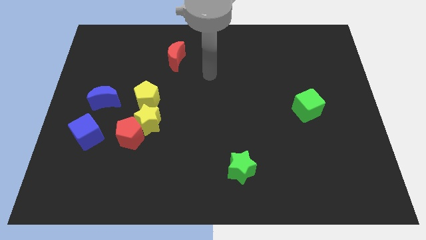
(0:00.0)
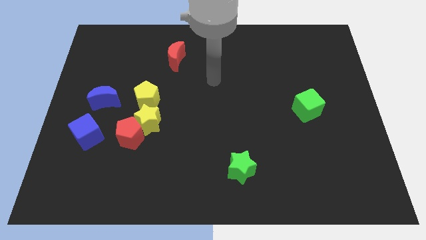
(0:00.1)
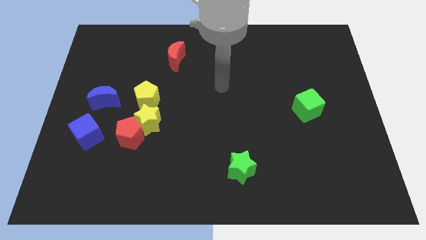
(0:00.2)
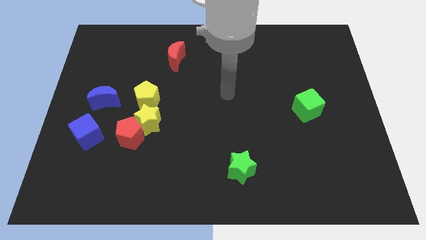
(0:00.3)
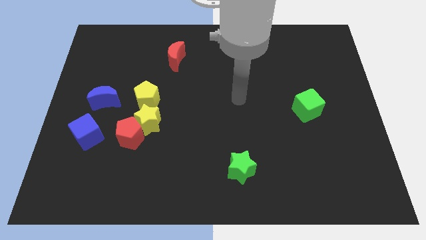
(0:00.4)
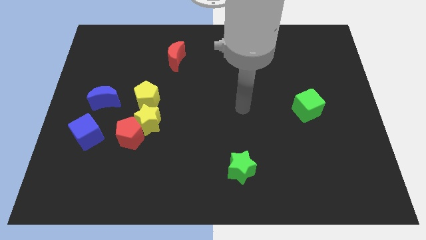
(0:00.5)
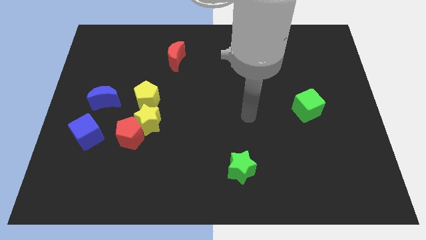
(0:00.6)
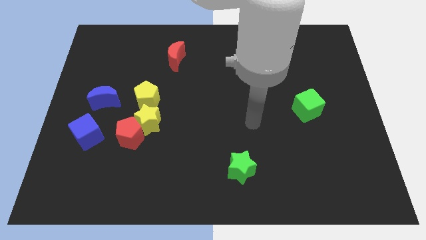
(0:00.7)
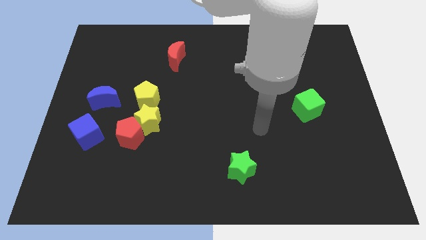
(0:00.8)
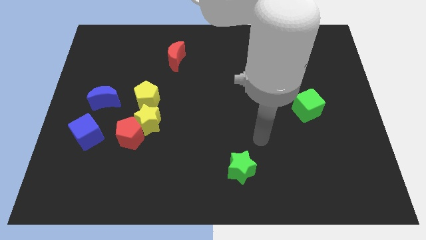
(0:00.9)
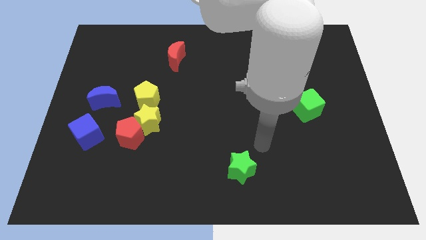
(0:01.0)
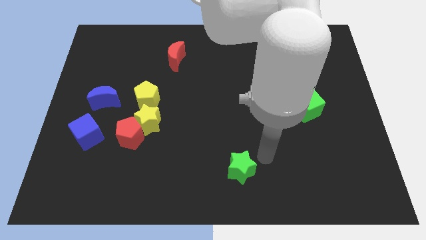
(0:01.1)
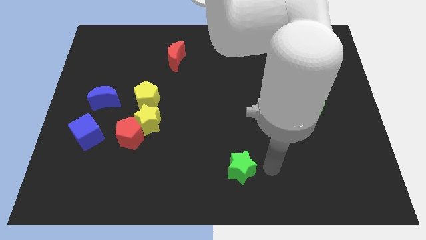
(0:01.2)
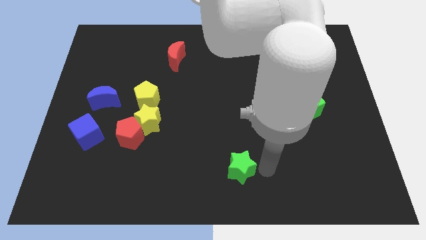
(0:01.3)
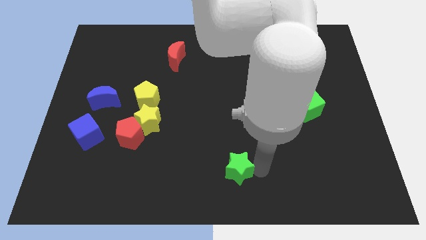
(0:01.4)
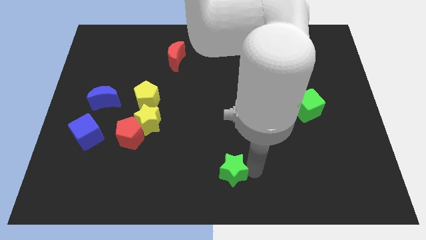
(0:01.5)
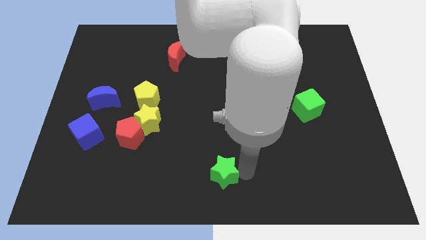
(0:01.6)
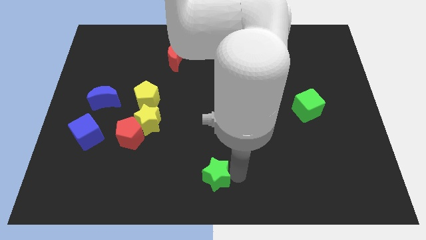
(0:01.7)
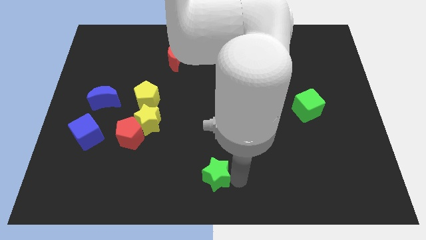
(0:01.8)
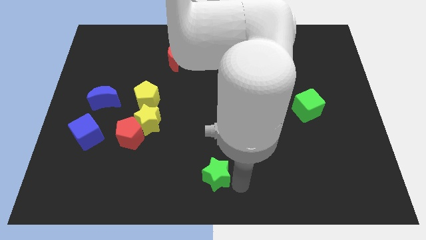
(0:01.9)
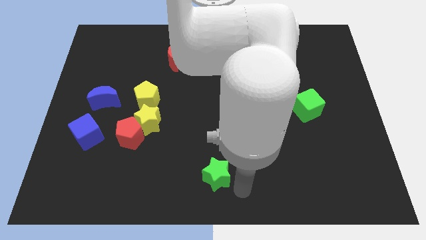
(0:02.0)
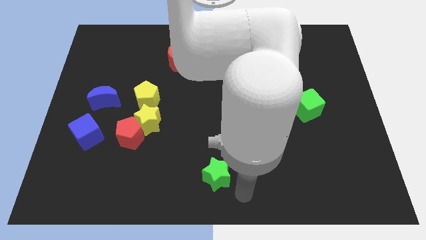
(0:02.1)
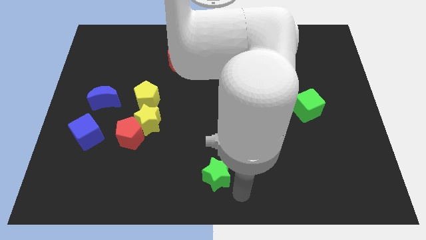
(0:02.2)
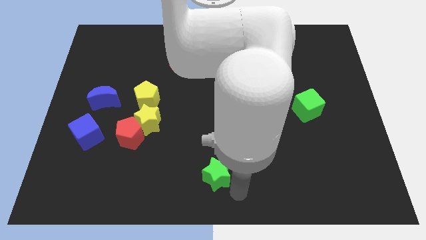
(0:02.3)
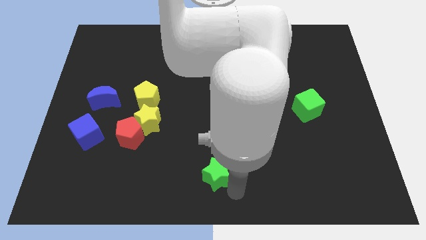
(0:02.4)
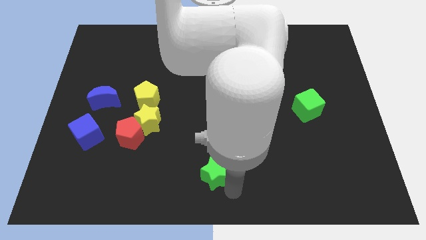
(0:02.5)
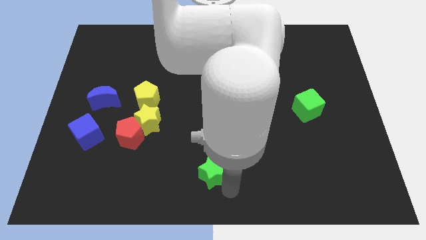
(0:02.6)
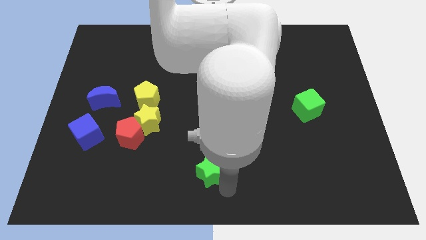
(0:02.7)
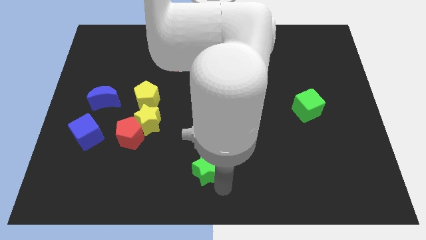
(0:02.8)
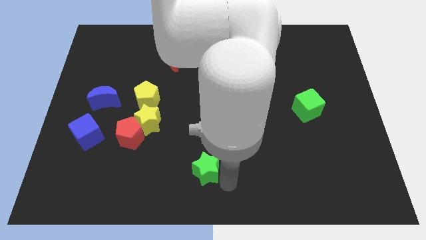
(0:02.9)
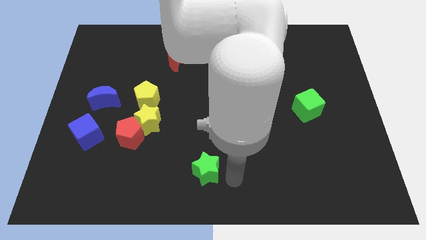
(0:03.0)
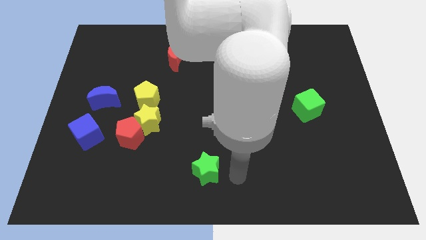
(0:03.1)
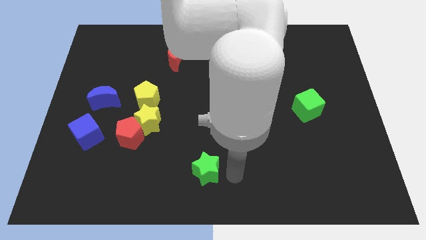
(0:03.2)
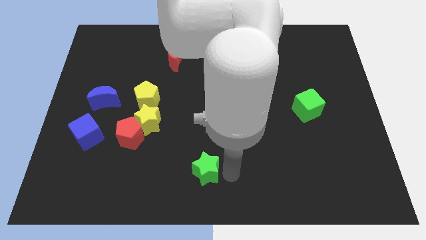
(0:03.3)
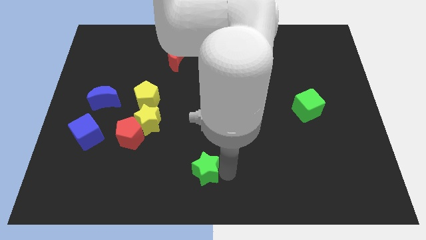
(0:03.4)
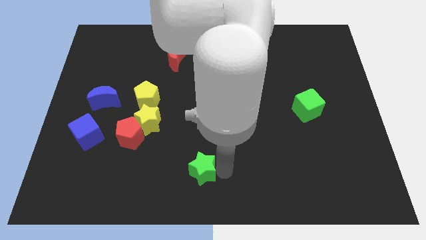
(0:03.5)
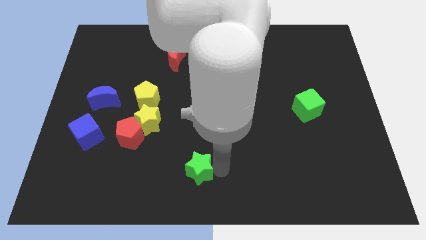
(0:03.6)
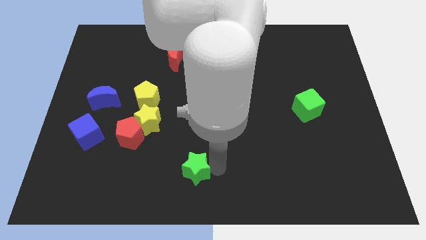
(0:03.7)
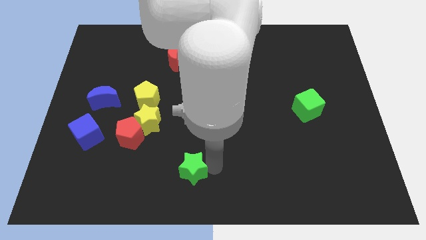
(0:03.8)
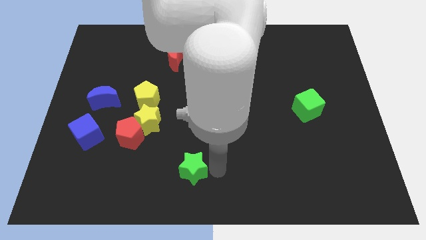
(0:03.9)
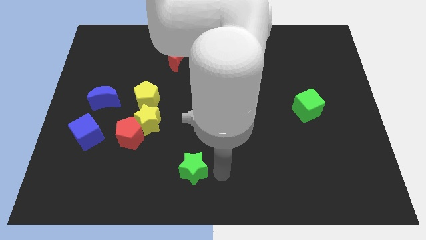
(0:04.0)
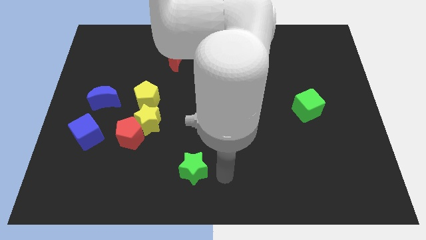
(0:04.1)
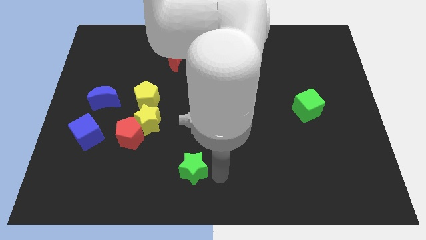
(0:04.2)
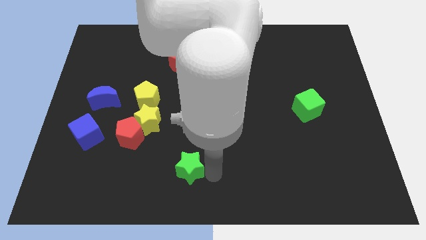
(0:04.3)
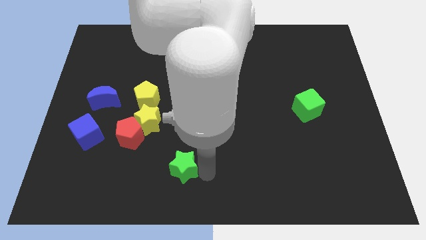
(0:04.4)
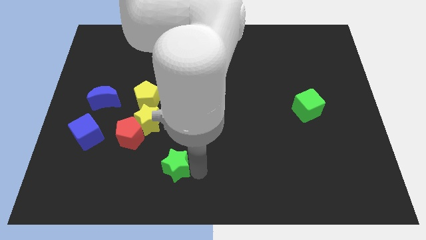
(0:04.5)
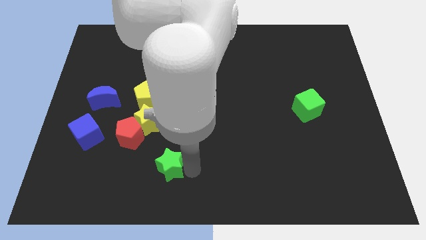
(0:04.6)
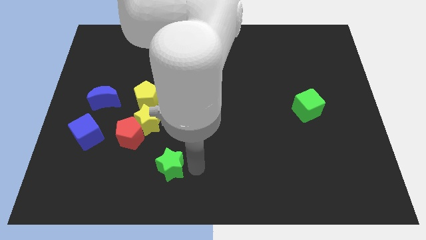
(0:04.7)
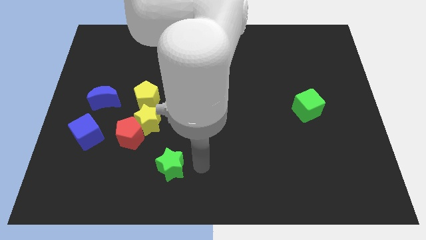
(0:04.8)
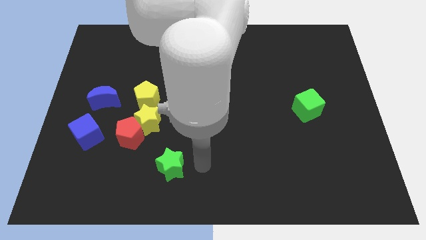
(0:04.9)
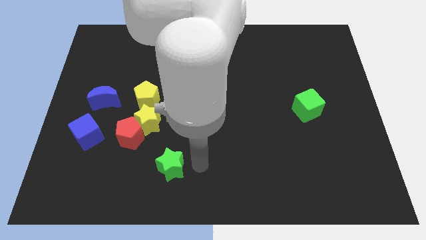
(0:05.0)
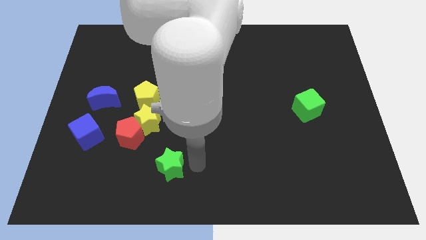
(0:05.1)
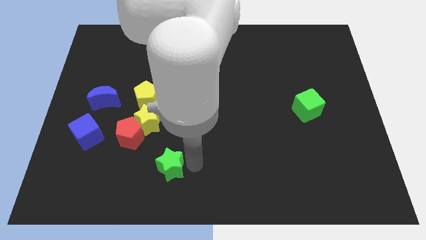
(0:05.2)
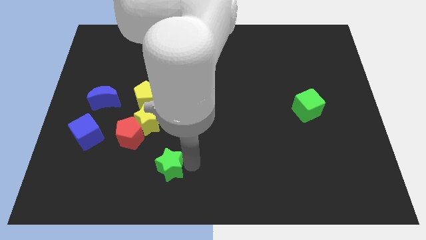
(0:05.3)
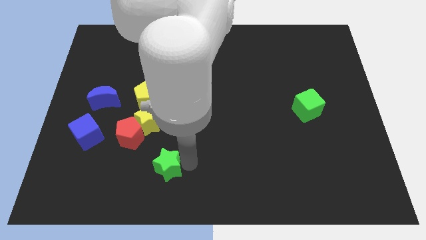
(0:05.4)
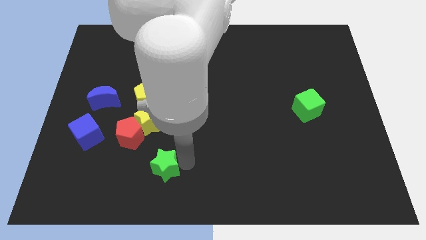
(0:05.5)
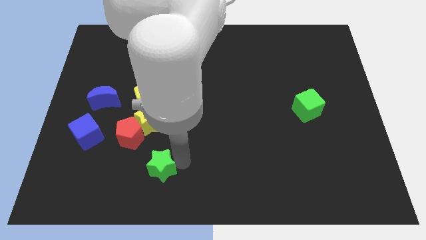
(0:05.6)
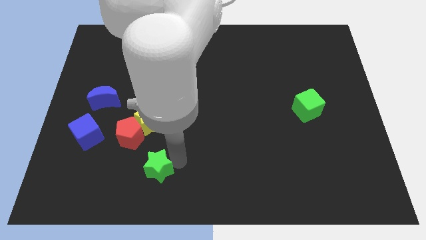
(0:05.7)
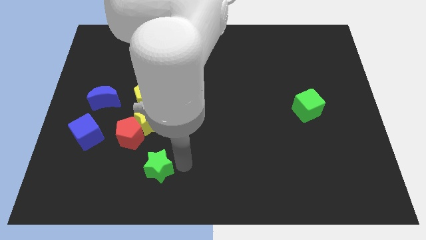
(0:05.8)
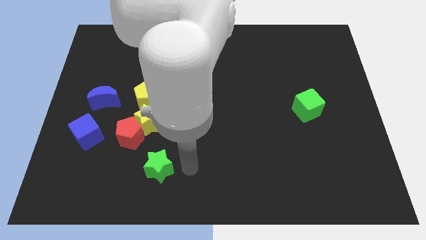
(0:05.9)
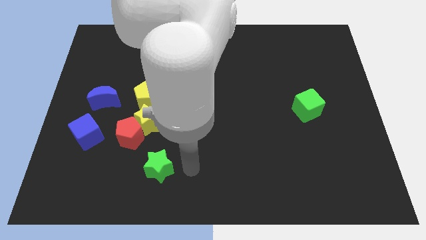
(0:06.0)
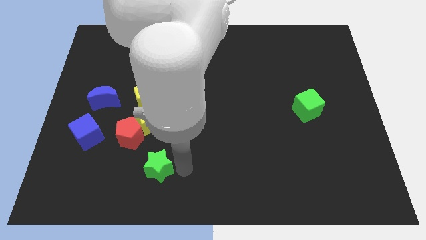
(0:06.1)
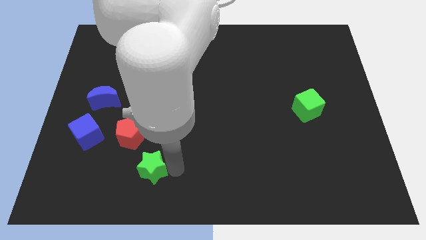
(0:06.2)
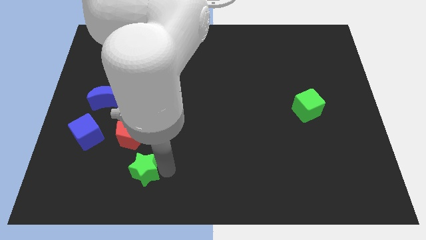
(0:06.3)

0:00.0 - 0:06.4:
push the green star left

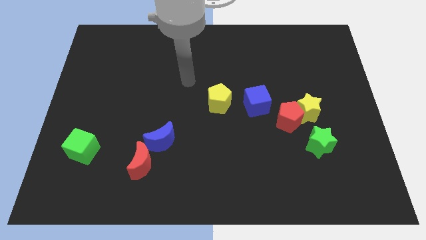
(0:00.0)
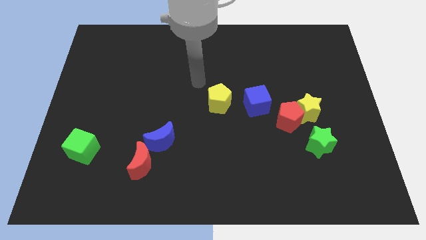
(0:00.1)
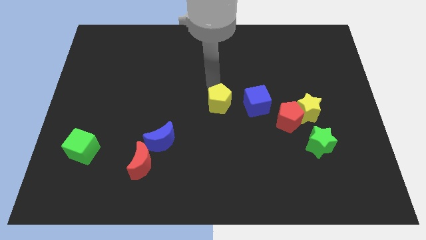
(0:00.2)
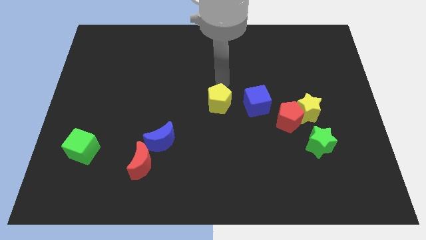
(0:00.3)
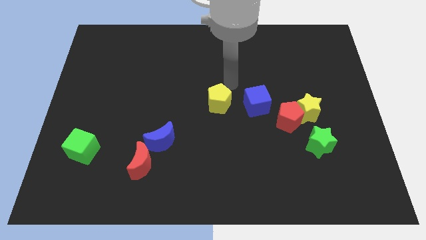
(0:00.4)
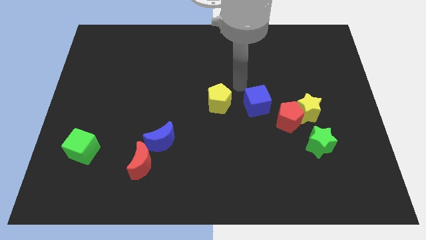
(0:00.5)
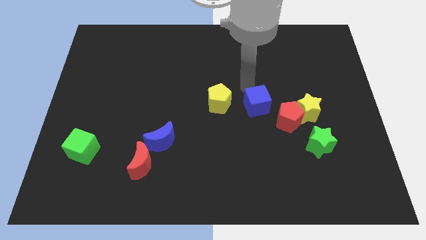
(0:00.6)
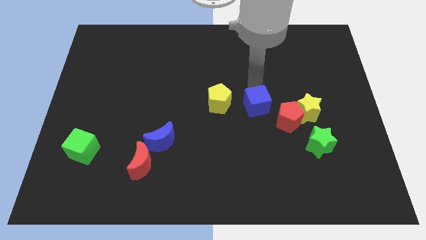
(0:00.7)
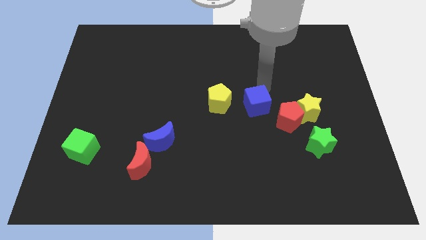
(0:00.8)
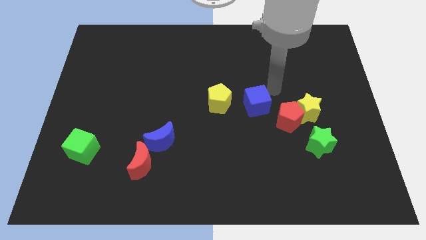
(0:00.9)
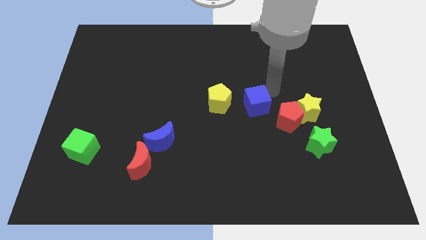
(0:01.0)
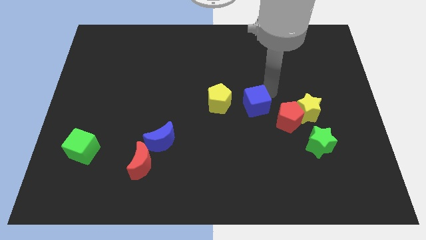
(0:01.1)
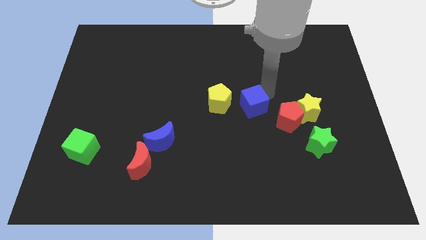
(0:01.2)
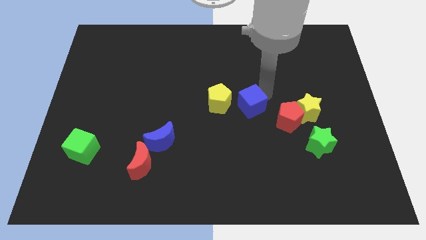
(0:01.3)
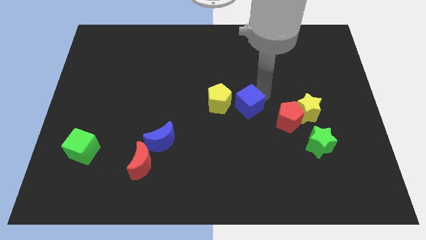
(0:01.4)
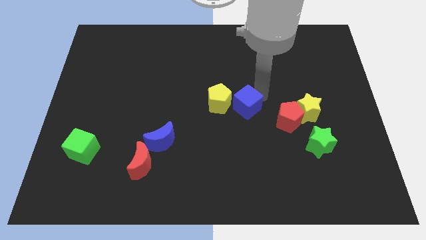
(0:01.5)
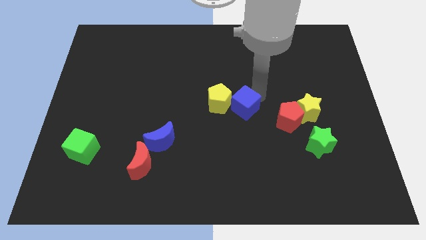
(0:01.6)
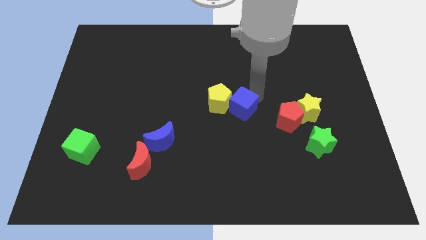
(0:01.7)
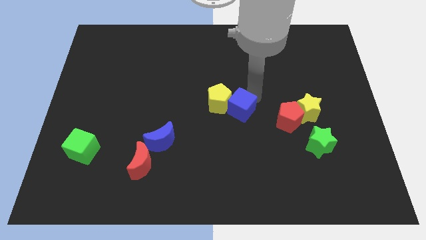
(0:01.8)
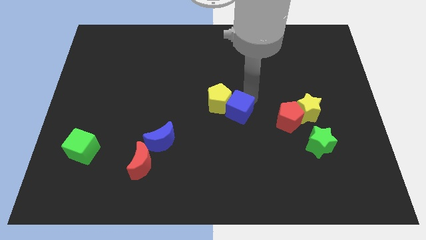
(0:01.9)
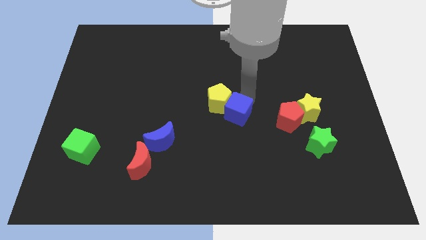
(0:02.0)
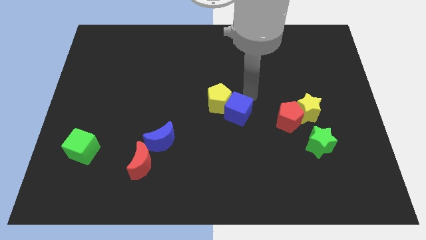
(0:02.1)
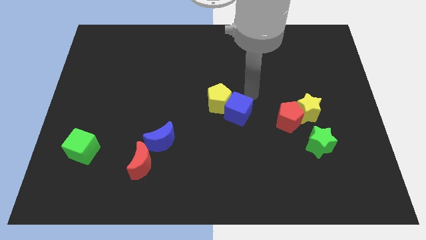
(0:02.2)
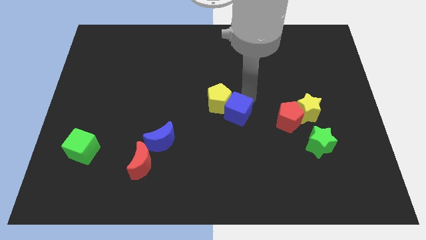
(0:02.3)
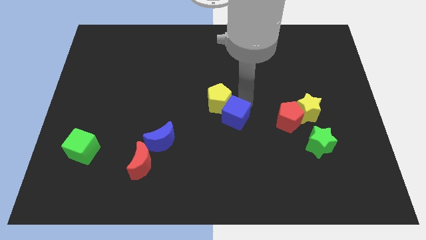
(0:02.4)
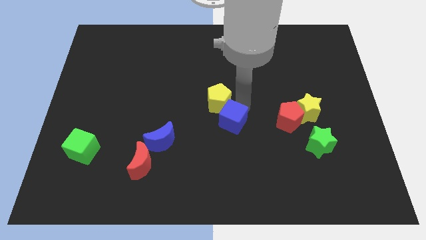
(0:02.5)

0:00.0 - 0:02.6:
slide the blue cube somewhat down and left diagonally
